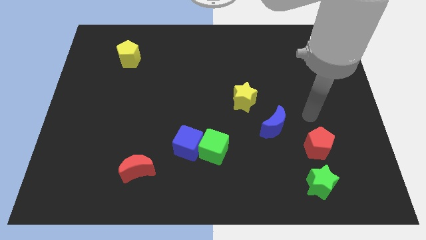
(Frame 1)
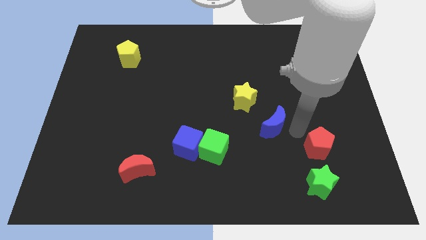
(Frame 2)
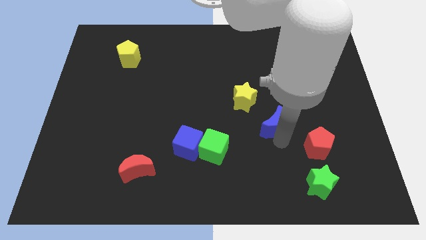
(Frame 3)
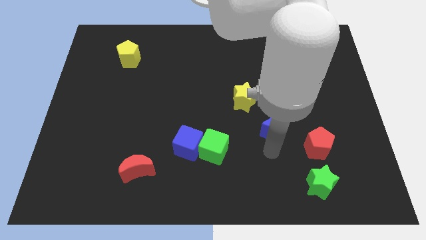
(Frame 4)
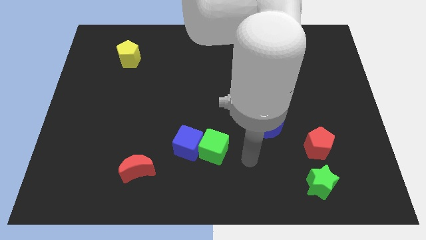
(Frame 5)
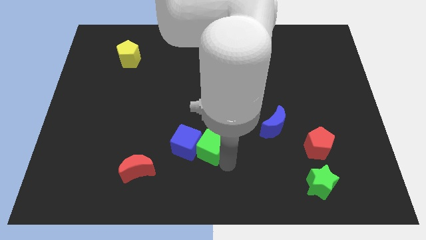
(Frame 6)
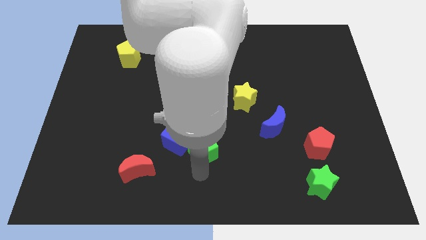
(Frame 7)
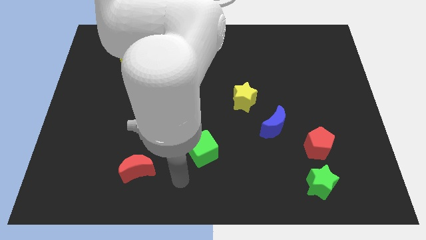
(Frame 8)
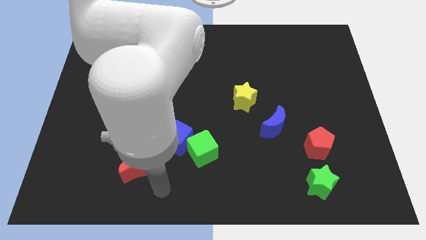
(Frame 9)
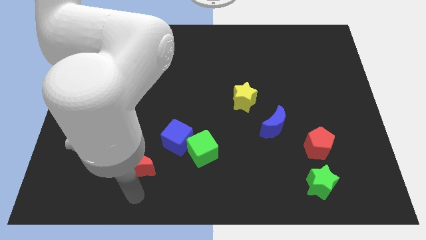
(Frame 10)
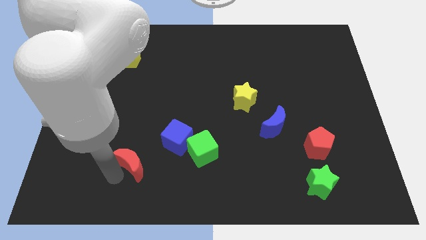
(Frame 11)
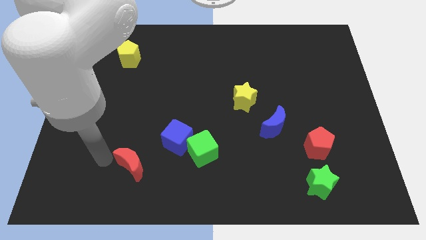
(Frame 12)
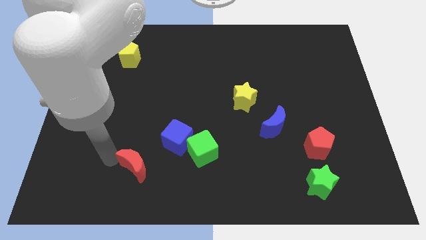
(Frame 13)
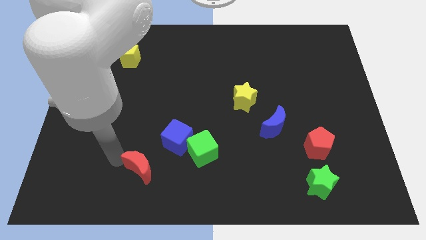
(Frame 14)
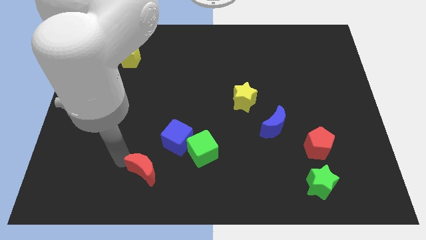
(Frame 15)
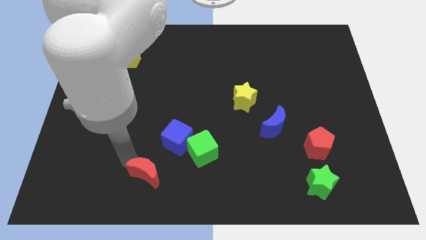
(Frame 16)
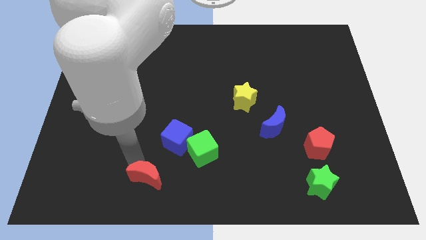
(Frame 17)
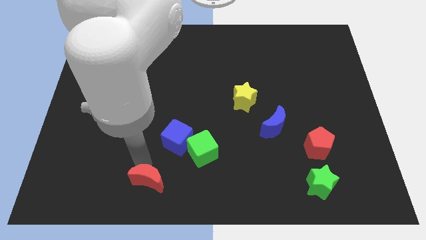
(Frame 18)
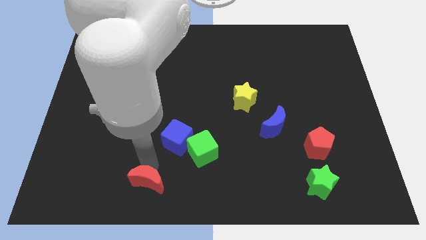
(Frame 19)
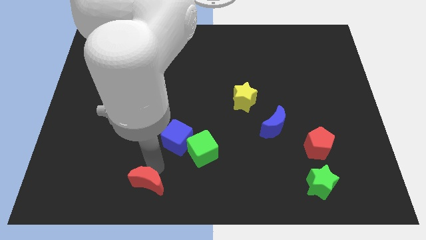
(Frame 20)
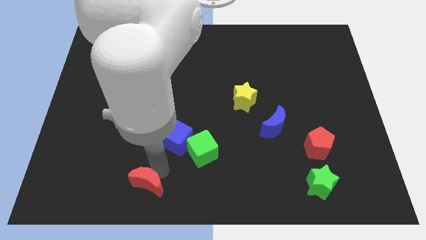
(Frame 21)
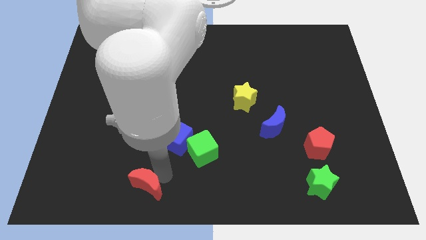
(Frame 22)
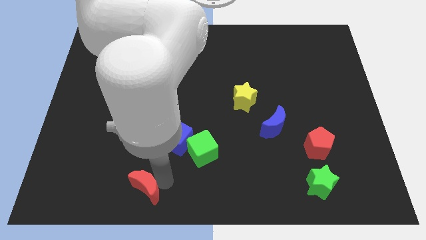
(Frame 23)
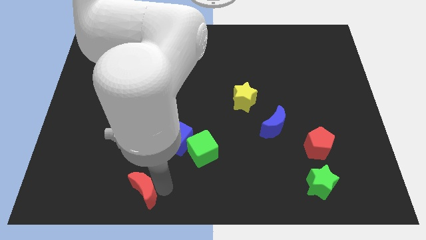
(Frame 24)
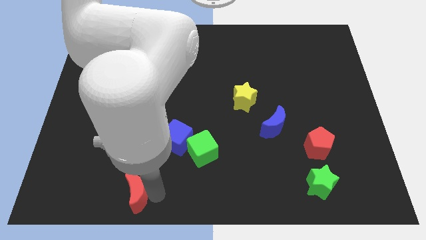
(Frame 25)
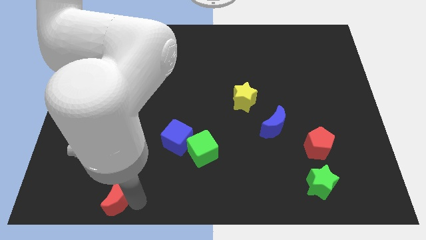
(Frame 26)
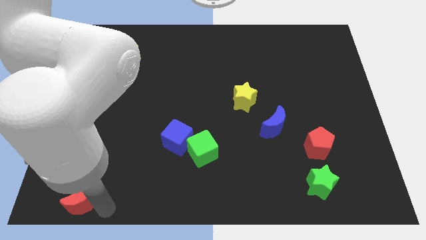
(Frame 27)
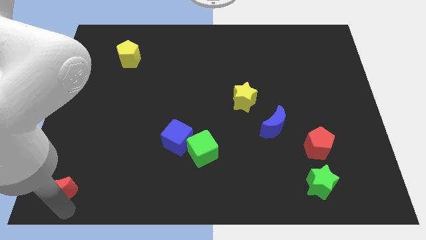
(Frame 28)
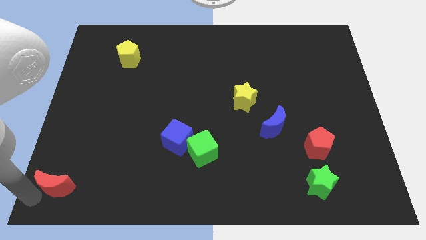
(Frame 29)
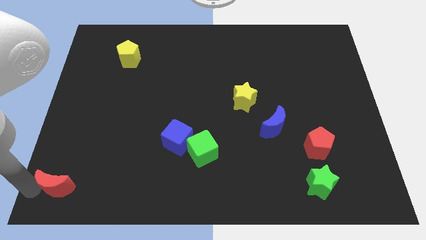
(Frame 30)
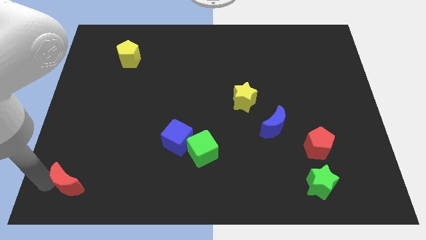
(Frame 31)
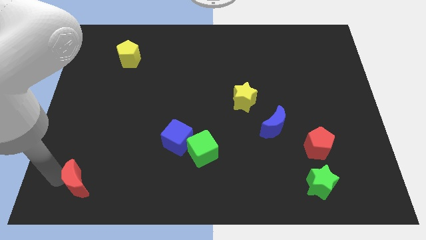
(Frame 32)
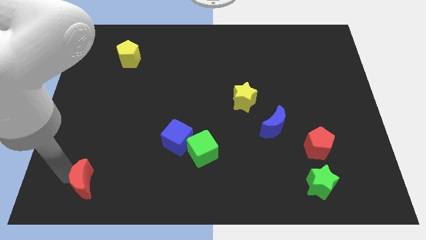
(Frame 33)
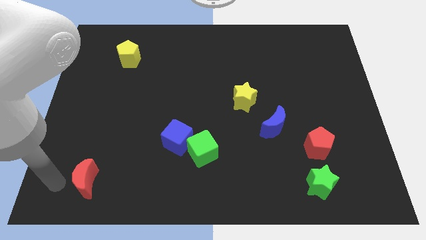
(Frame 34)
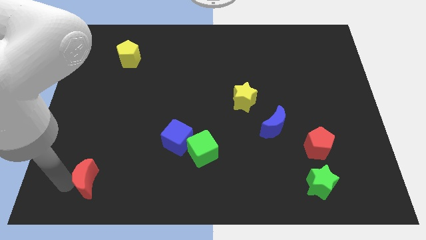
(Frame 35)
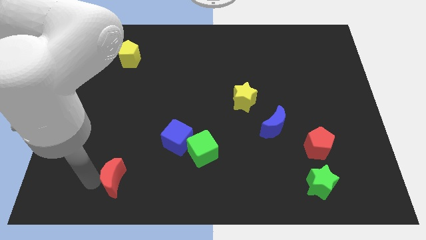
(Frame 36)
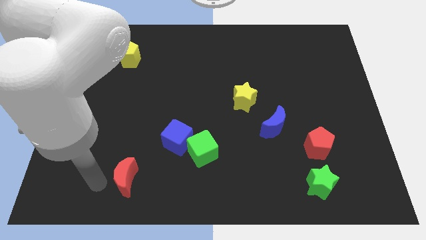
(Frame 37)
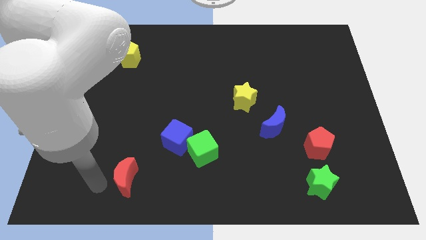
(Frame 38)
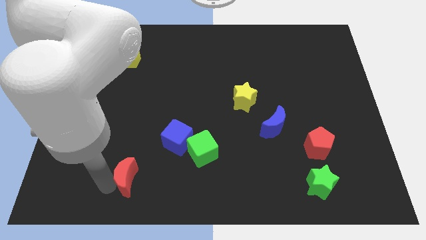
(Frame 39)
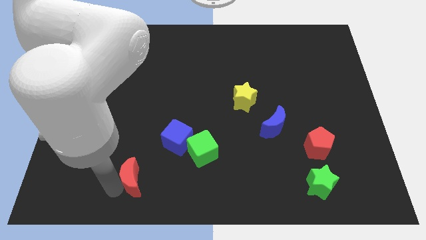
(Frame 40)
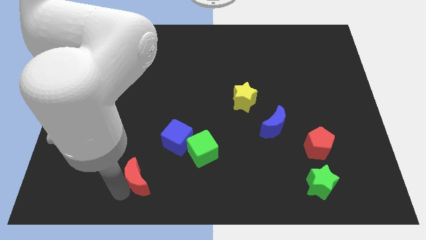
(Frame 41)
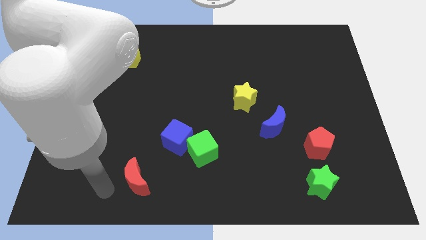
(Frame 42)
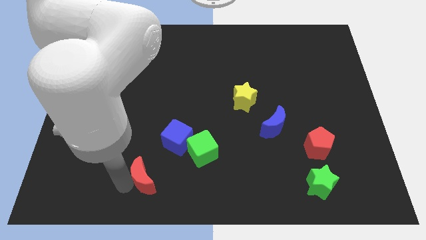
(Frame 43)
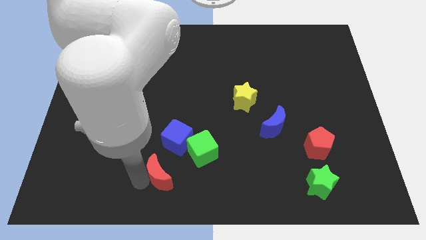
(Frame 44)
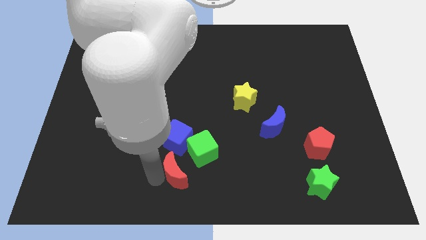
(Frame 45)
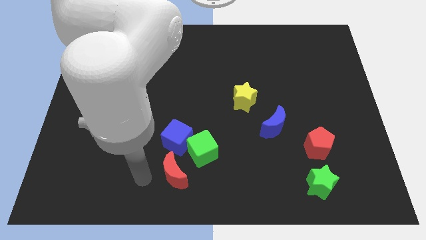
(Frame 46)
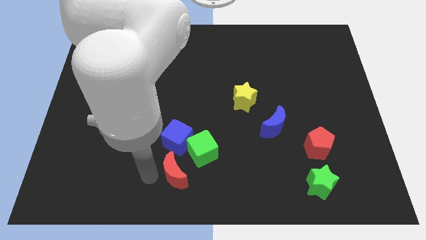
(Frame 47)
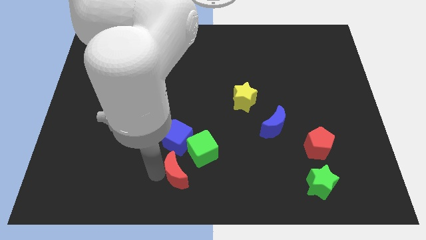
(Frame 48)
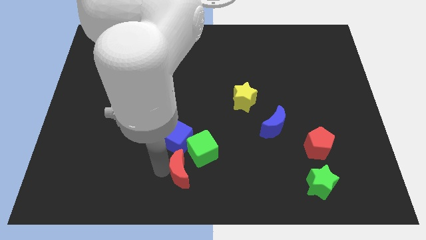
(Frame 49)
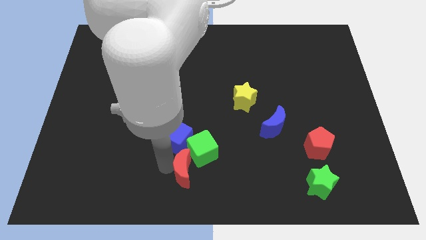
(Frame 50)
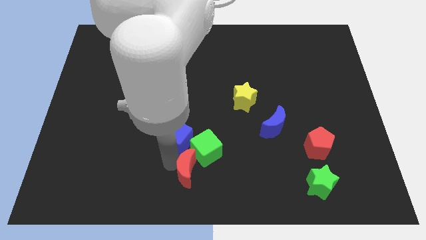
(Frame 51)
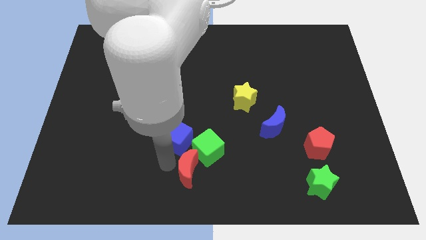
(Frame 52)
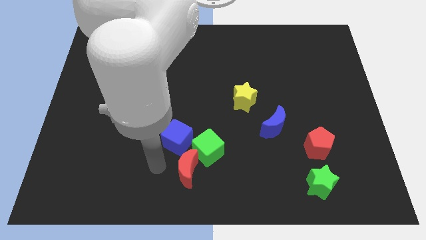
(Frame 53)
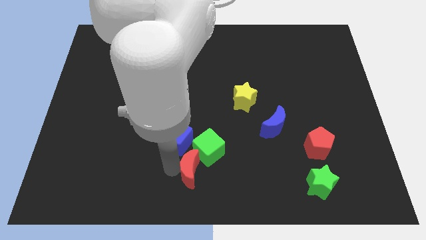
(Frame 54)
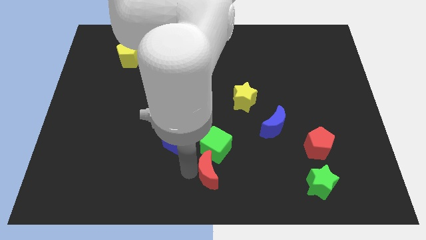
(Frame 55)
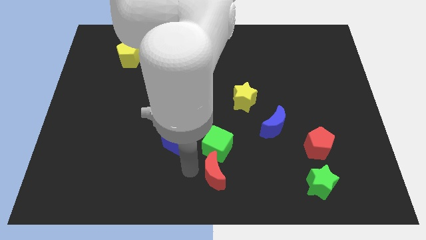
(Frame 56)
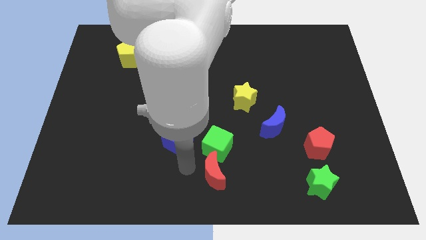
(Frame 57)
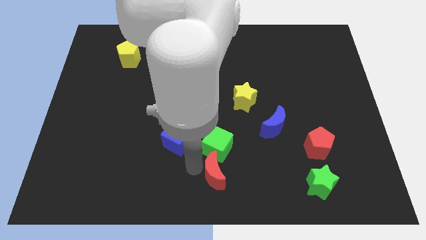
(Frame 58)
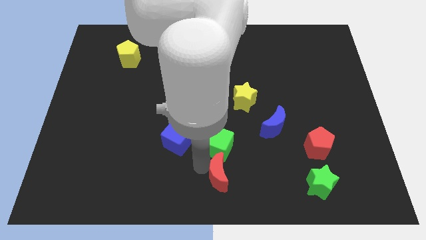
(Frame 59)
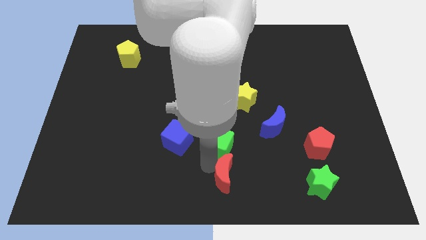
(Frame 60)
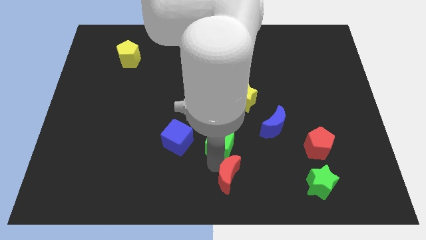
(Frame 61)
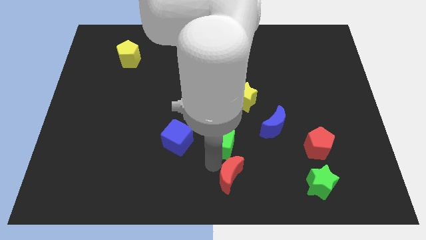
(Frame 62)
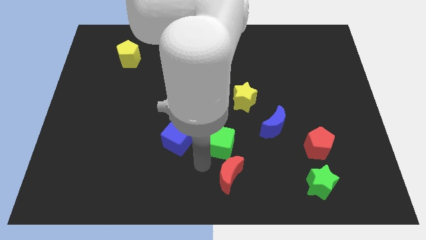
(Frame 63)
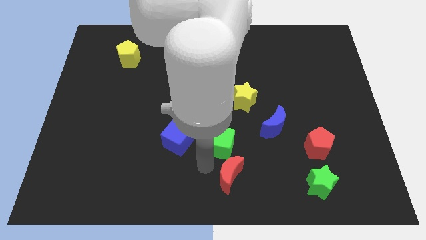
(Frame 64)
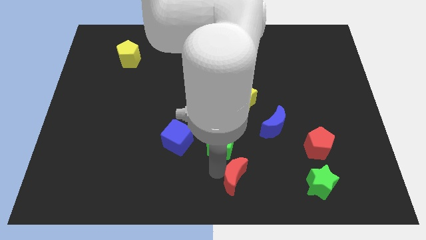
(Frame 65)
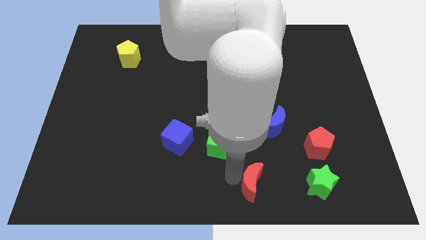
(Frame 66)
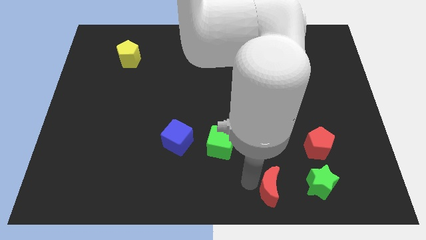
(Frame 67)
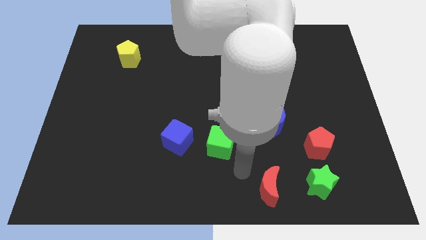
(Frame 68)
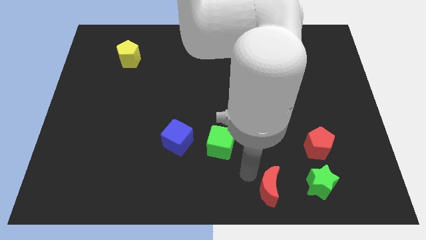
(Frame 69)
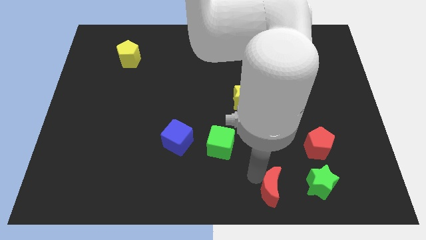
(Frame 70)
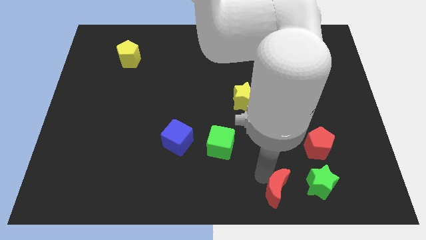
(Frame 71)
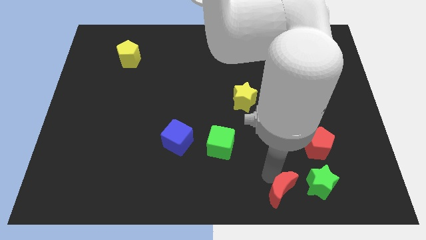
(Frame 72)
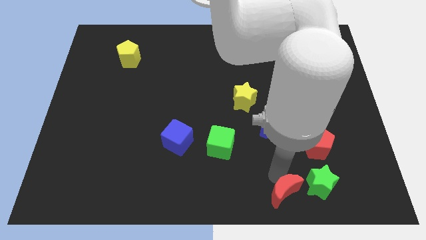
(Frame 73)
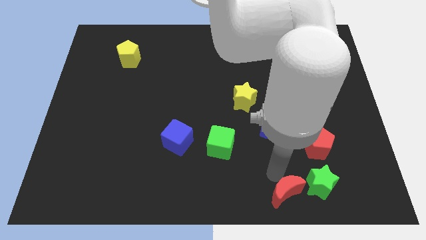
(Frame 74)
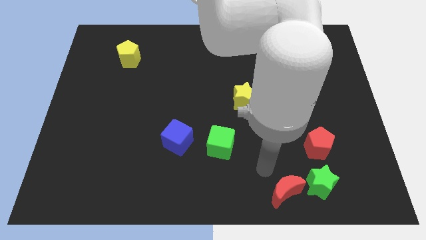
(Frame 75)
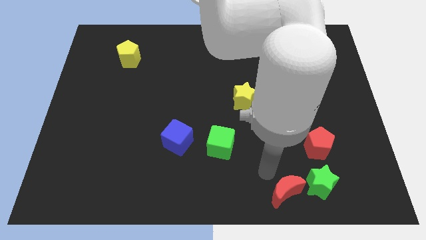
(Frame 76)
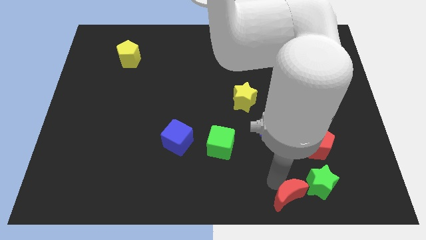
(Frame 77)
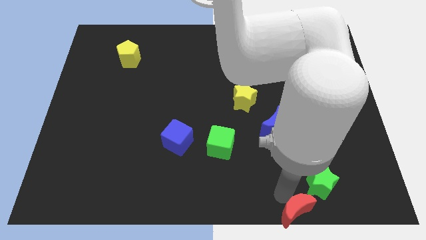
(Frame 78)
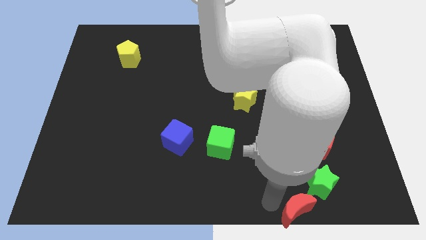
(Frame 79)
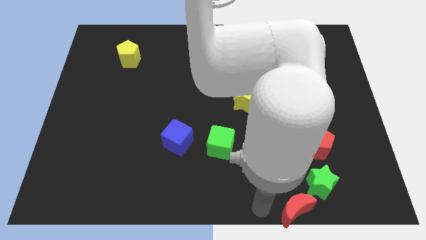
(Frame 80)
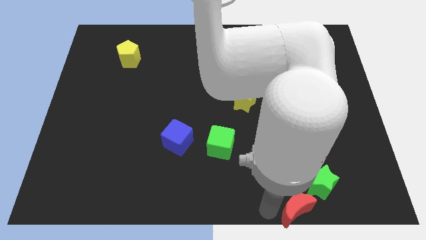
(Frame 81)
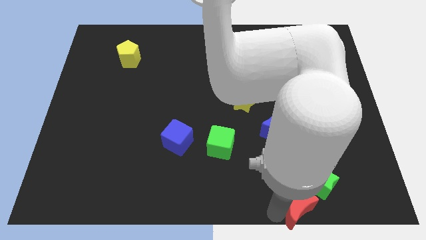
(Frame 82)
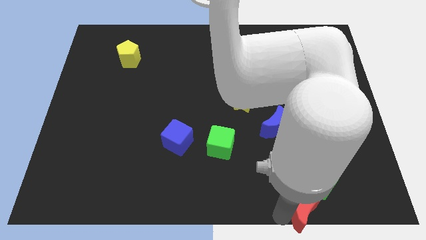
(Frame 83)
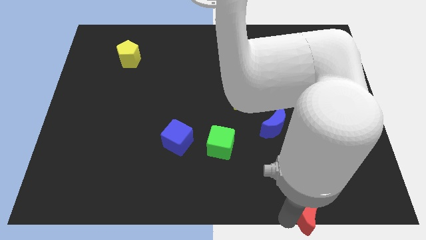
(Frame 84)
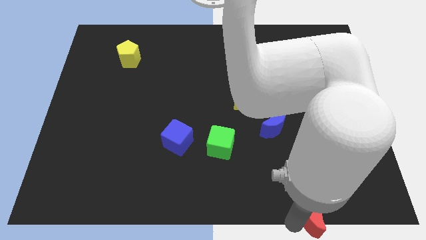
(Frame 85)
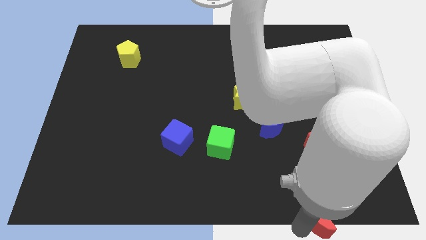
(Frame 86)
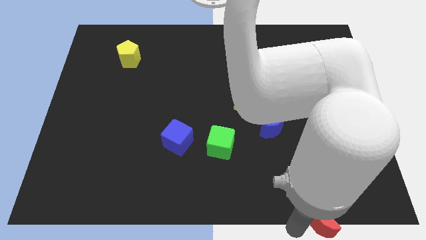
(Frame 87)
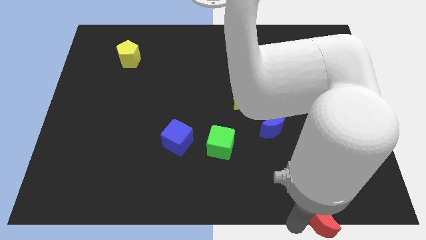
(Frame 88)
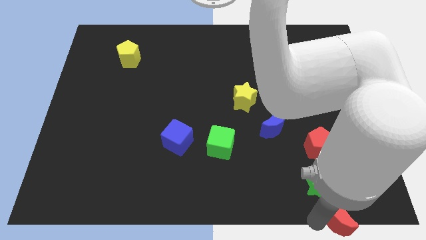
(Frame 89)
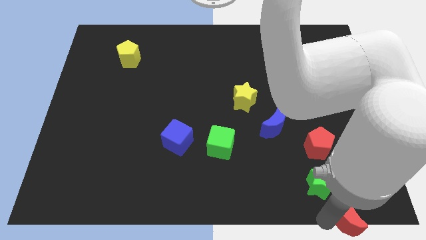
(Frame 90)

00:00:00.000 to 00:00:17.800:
move the red moon to the bottom right corner
